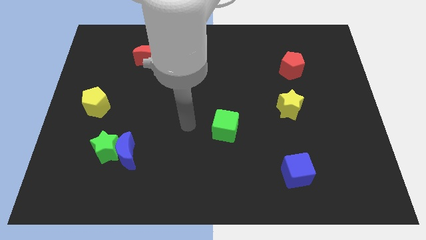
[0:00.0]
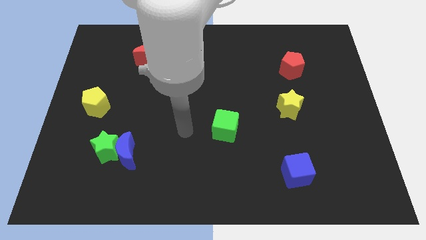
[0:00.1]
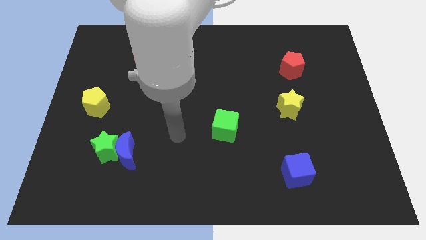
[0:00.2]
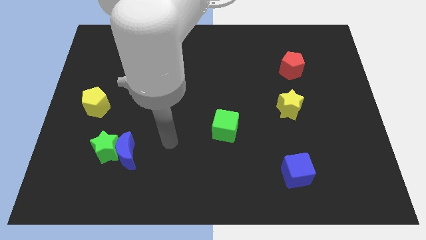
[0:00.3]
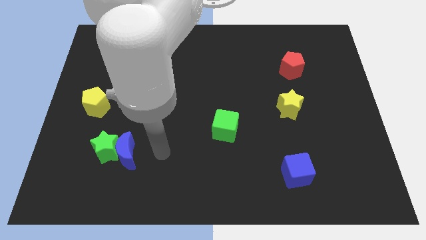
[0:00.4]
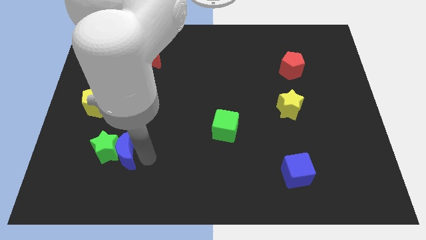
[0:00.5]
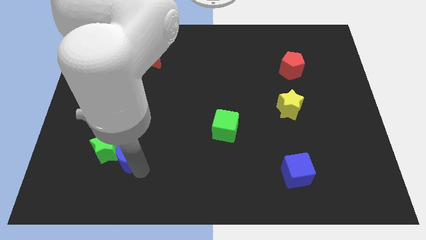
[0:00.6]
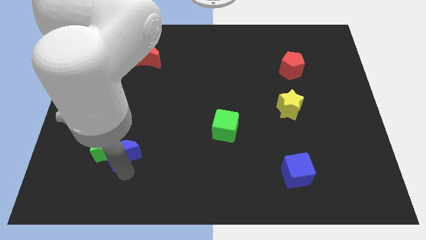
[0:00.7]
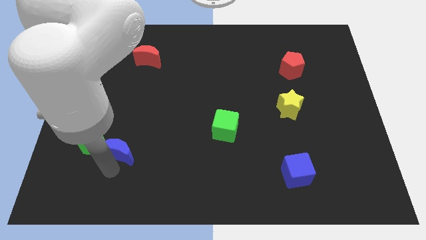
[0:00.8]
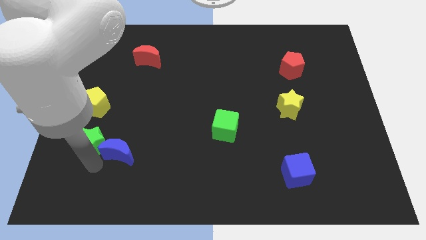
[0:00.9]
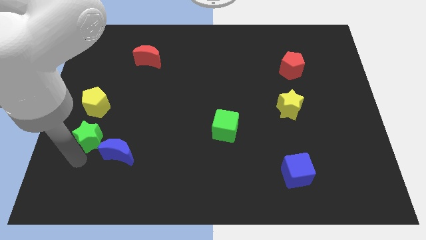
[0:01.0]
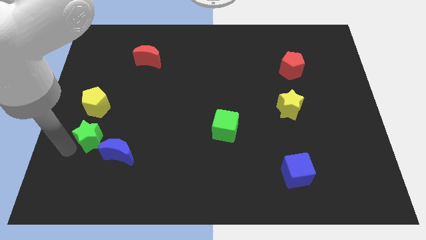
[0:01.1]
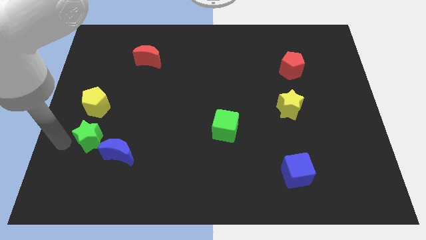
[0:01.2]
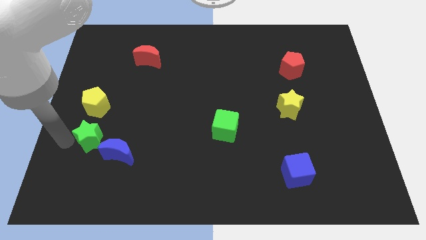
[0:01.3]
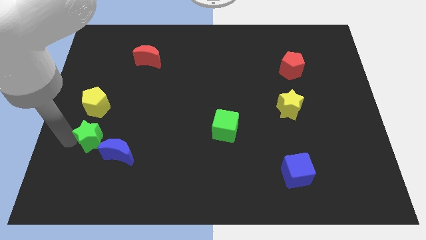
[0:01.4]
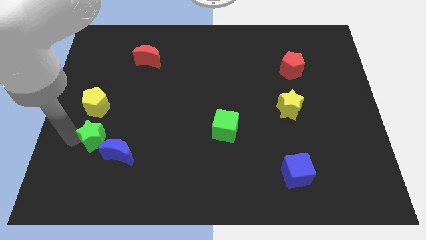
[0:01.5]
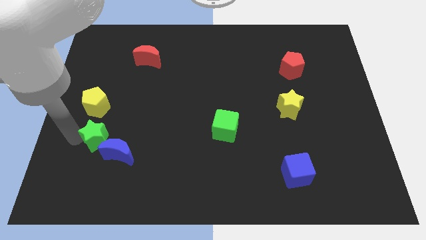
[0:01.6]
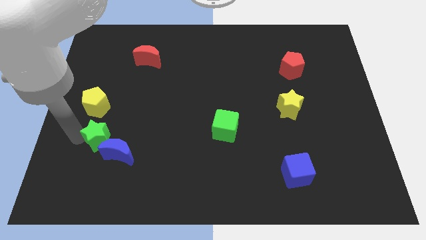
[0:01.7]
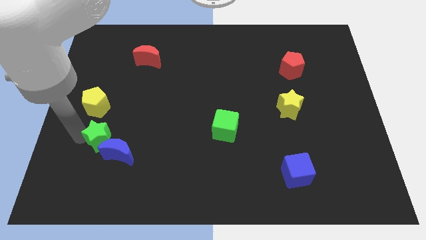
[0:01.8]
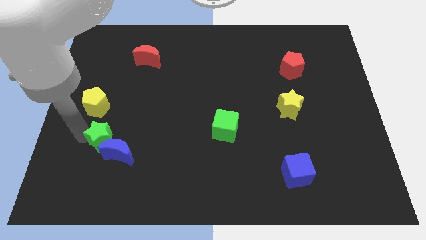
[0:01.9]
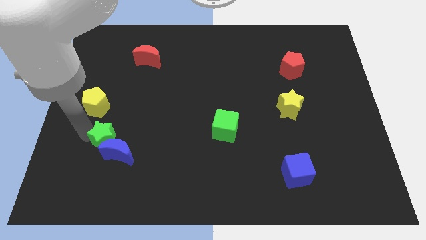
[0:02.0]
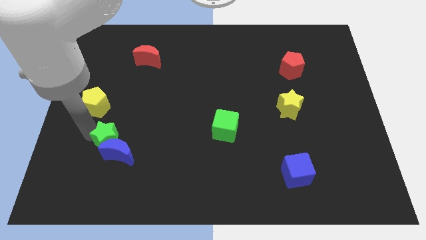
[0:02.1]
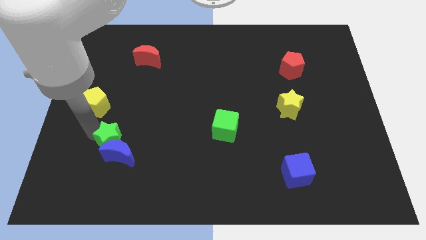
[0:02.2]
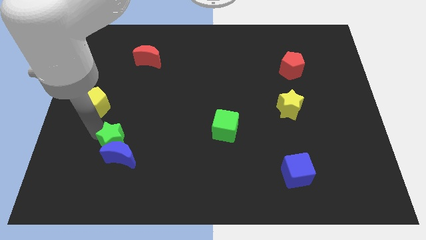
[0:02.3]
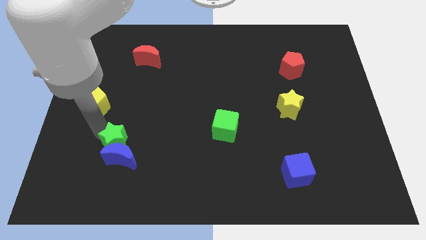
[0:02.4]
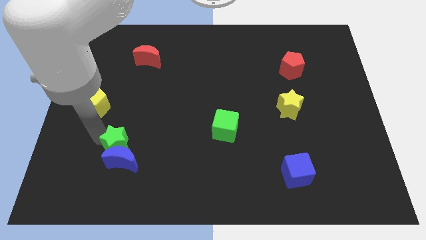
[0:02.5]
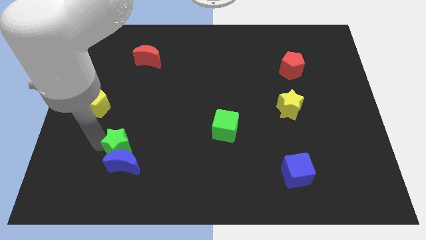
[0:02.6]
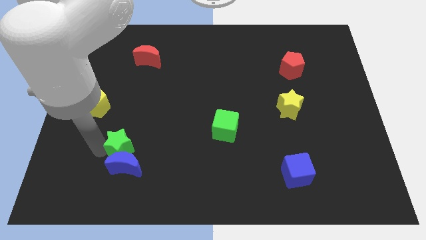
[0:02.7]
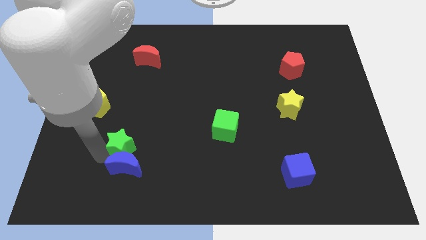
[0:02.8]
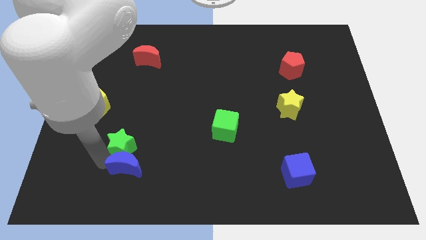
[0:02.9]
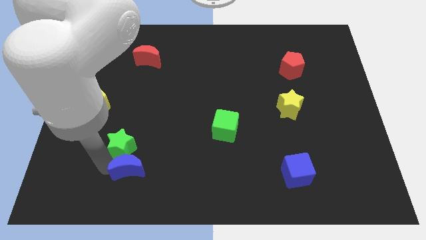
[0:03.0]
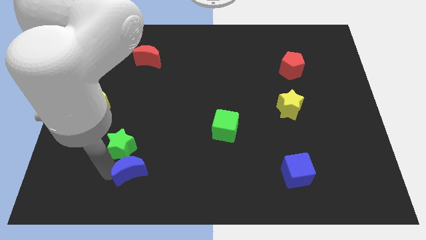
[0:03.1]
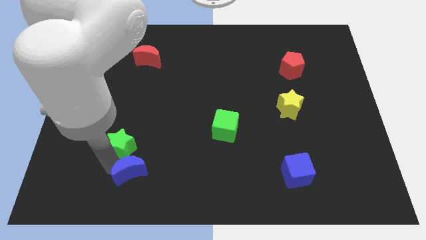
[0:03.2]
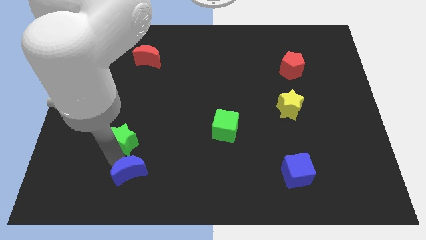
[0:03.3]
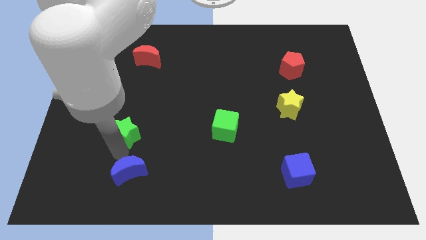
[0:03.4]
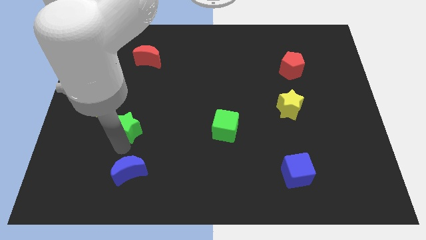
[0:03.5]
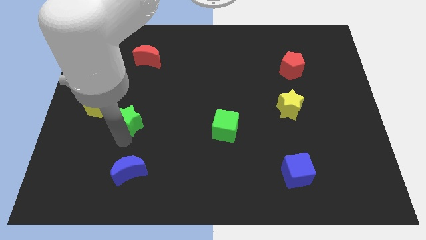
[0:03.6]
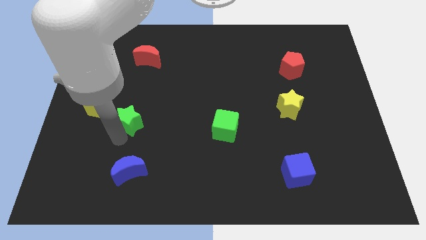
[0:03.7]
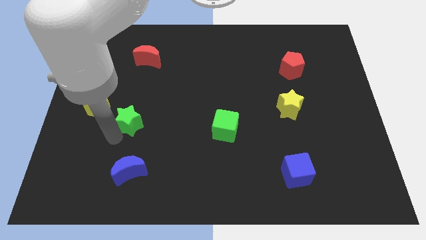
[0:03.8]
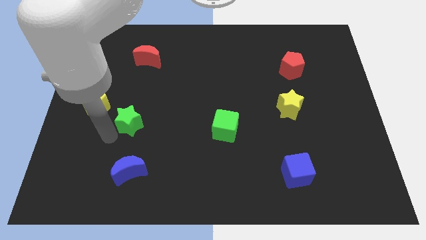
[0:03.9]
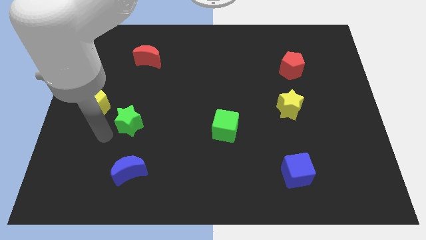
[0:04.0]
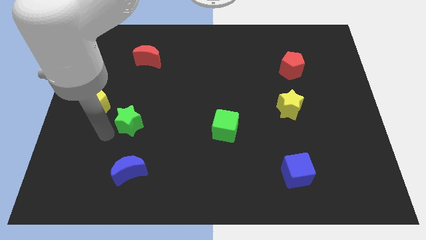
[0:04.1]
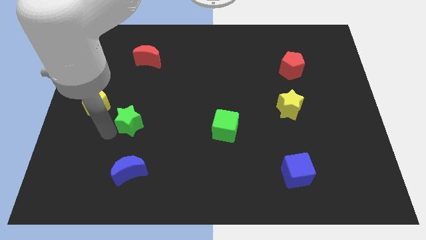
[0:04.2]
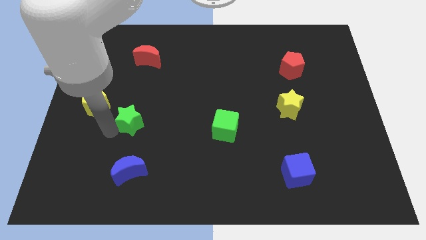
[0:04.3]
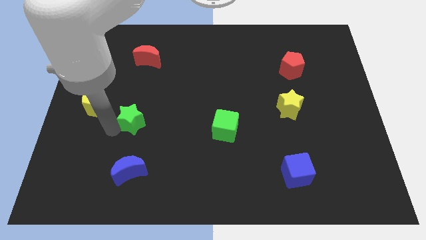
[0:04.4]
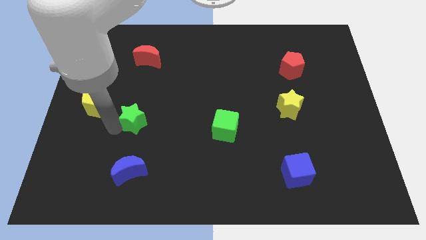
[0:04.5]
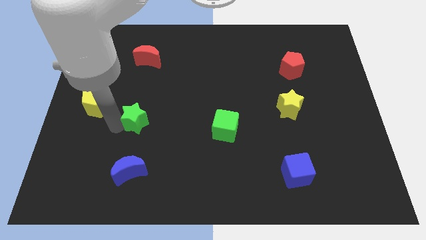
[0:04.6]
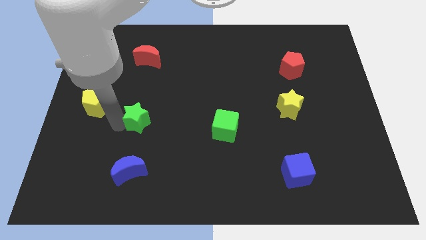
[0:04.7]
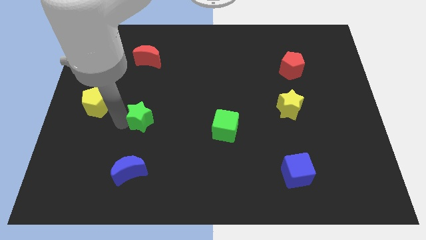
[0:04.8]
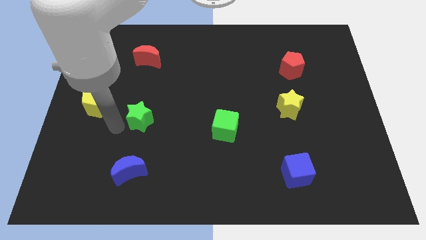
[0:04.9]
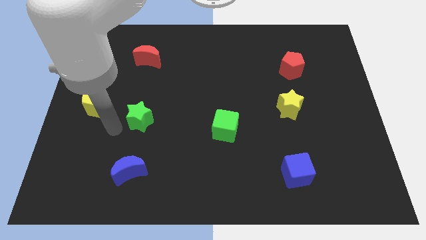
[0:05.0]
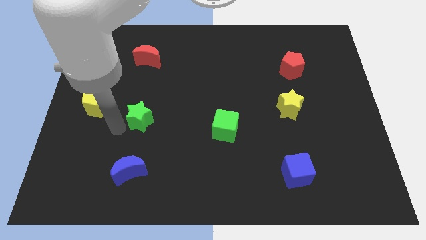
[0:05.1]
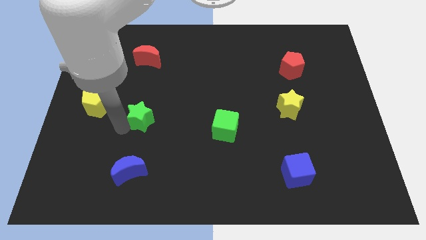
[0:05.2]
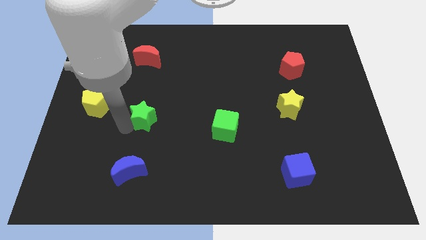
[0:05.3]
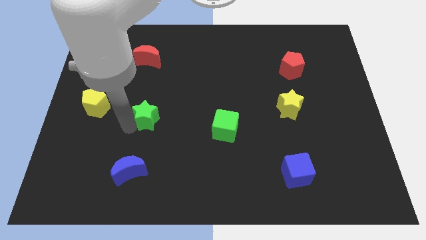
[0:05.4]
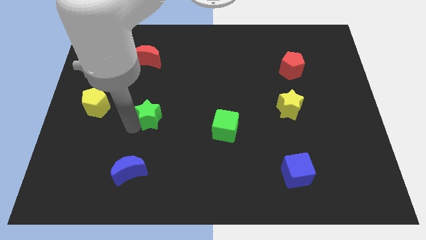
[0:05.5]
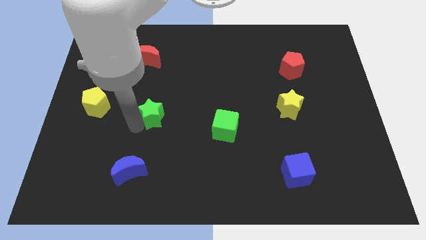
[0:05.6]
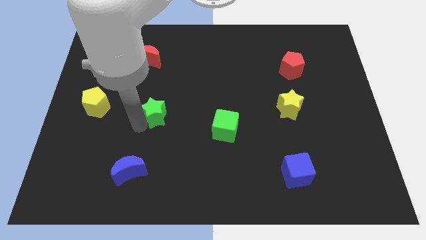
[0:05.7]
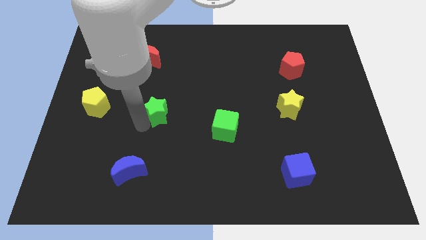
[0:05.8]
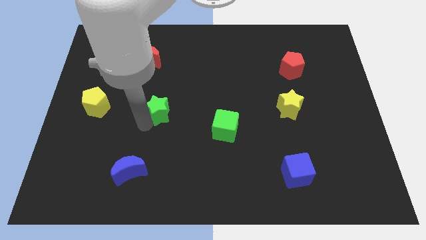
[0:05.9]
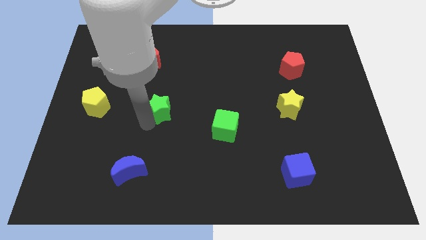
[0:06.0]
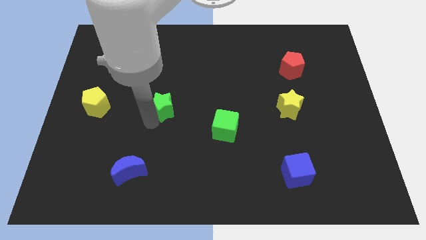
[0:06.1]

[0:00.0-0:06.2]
put the green star to the middle of the board
